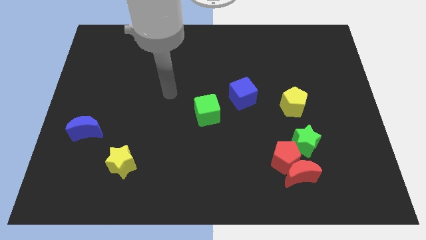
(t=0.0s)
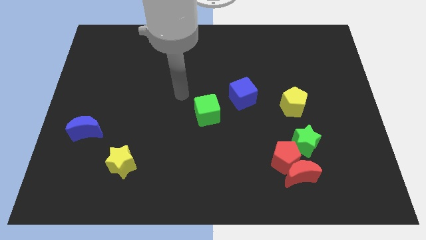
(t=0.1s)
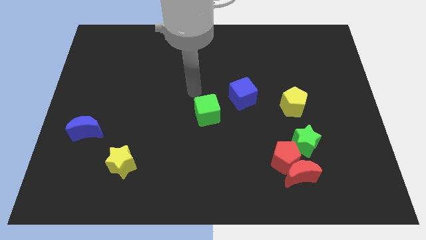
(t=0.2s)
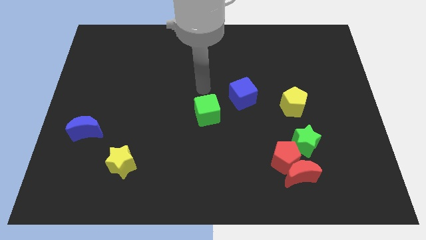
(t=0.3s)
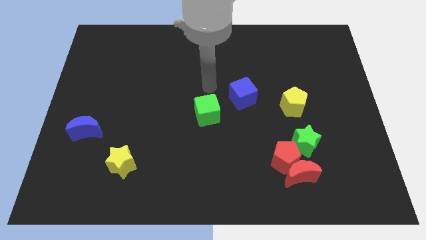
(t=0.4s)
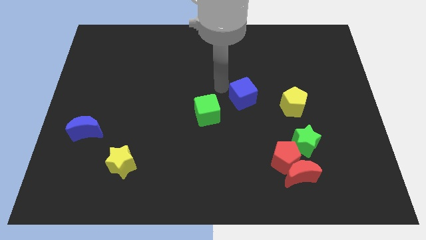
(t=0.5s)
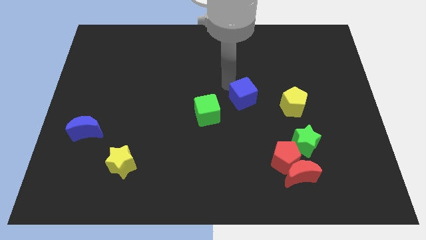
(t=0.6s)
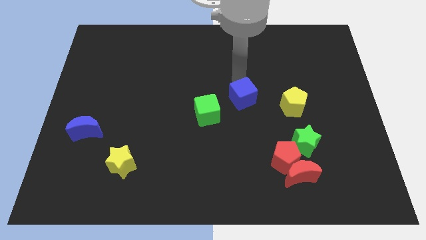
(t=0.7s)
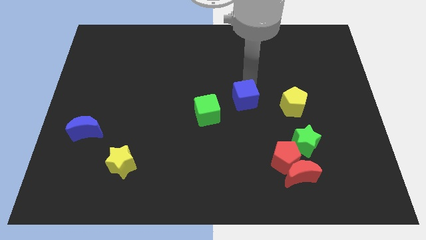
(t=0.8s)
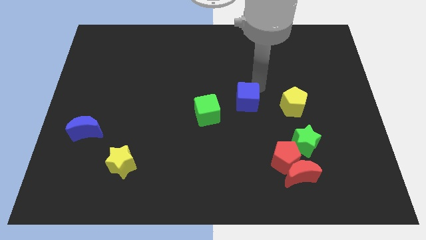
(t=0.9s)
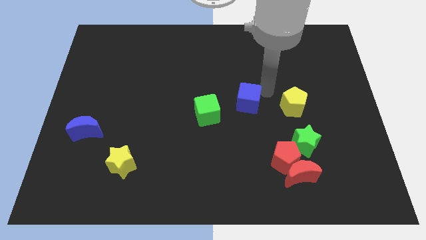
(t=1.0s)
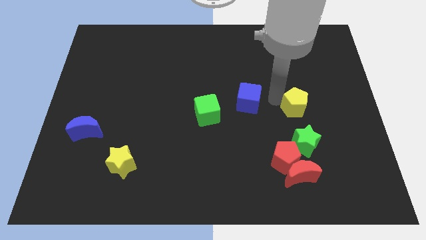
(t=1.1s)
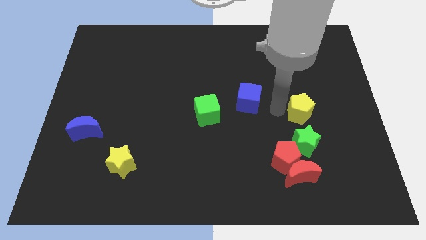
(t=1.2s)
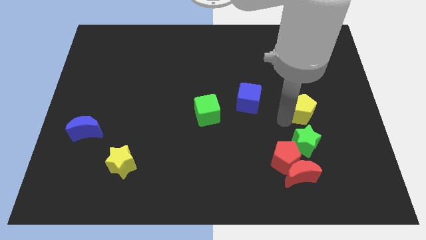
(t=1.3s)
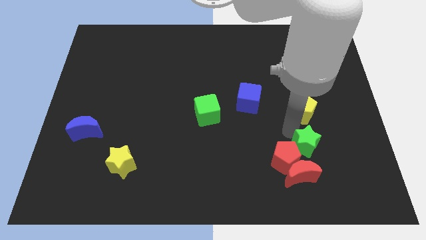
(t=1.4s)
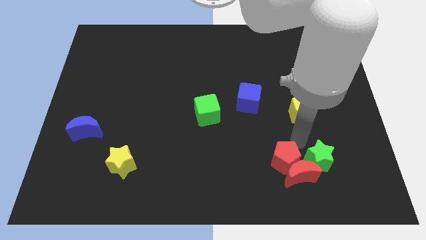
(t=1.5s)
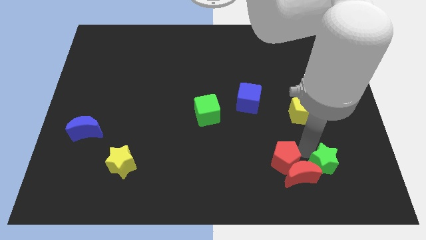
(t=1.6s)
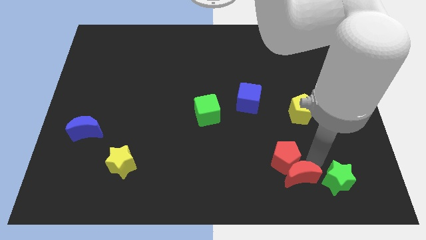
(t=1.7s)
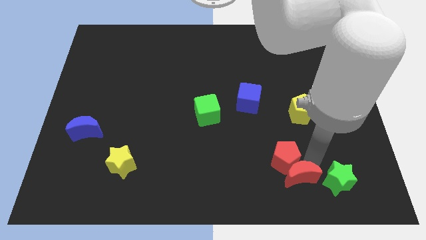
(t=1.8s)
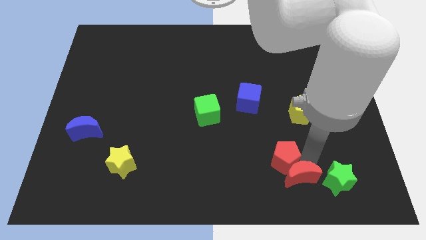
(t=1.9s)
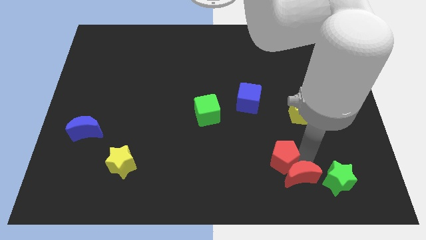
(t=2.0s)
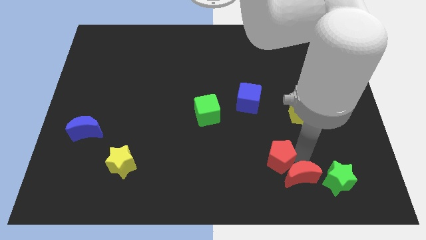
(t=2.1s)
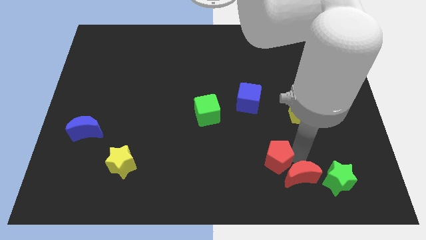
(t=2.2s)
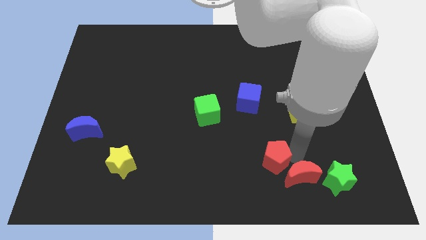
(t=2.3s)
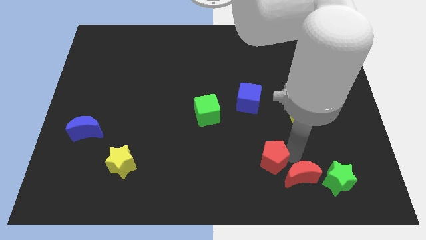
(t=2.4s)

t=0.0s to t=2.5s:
move the red pentagon away from the red moon and green star

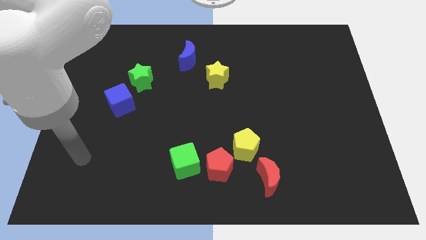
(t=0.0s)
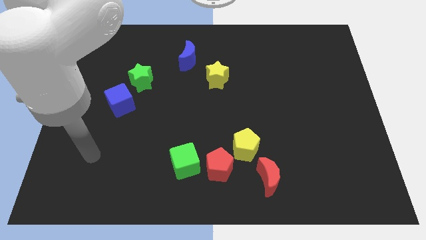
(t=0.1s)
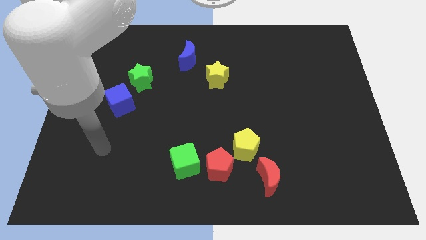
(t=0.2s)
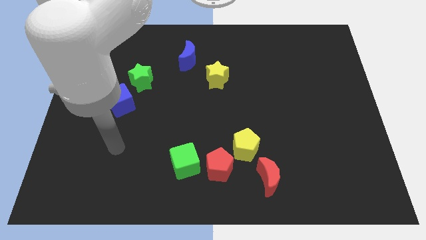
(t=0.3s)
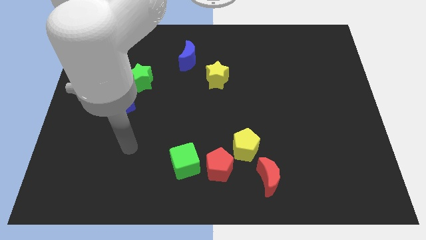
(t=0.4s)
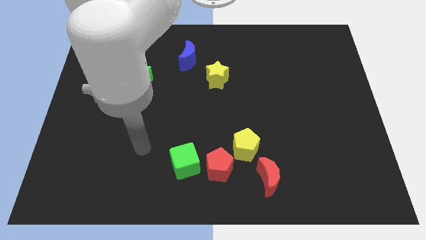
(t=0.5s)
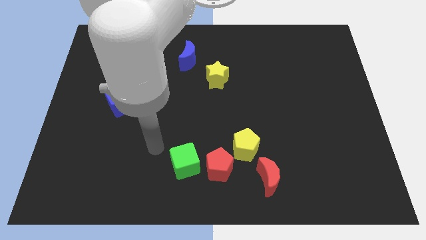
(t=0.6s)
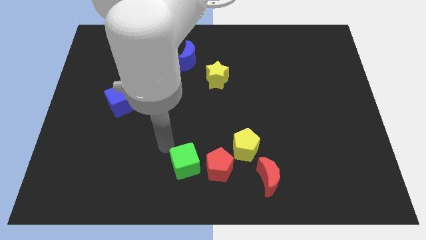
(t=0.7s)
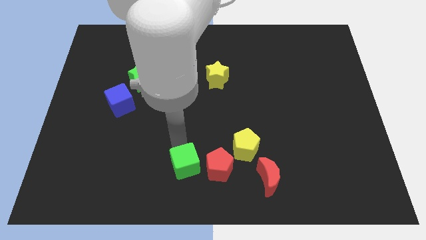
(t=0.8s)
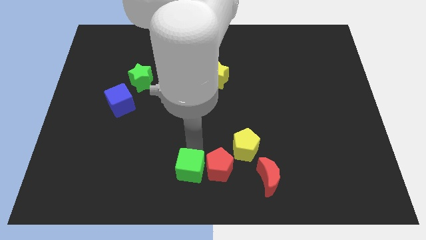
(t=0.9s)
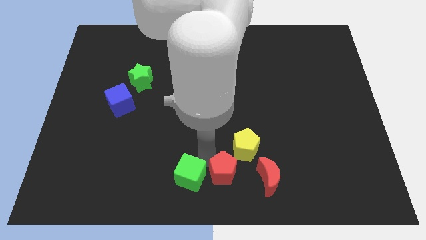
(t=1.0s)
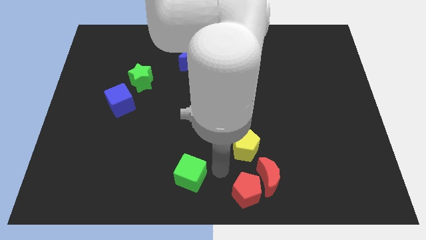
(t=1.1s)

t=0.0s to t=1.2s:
pull the green cube apart from the red pentagon

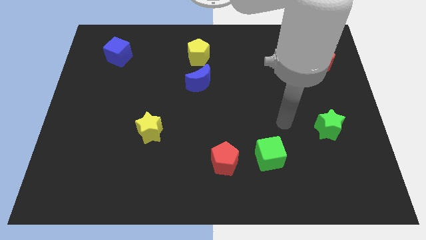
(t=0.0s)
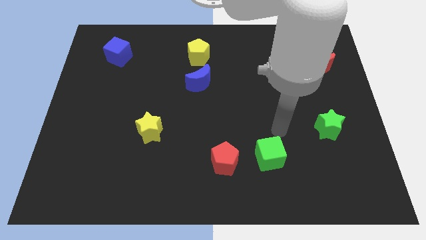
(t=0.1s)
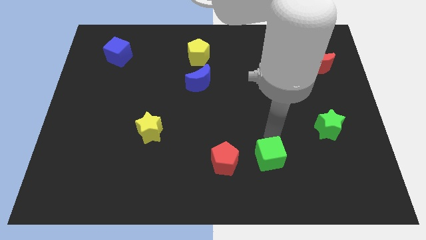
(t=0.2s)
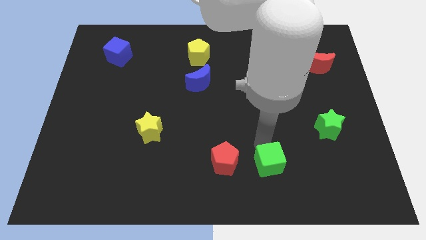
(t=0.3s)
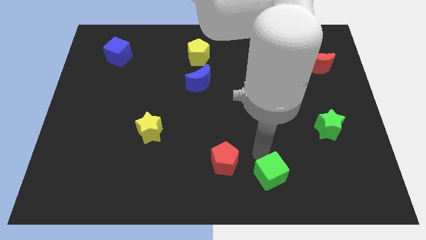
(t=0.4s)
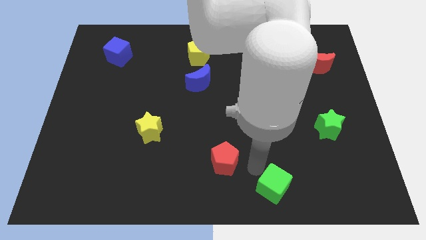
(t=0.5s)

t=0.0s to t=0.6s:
pull the red pentagon apart from the green cube

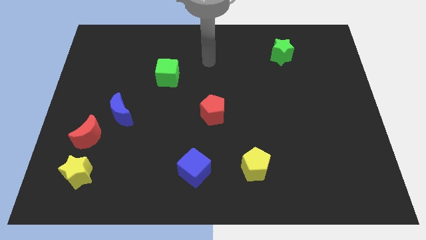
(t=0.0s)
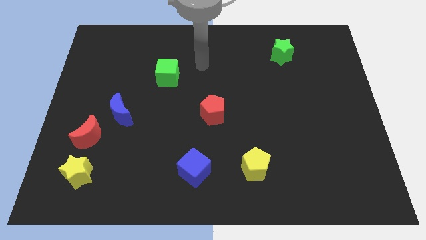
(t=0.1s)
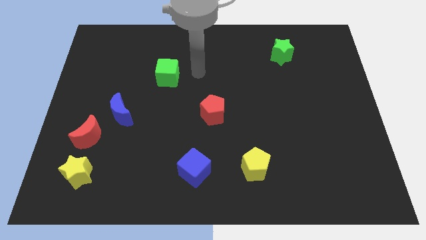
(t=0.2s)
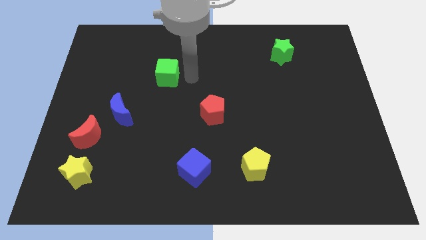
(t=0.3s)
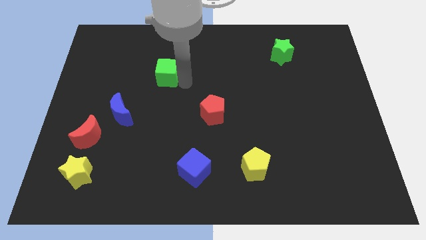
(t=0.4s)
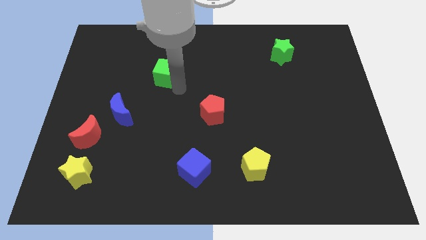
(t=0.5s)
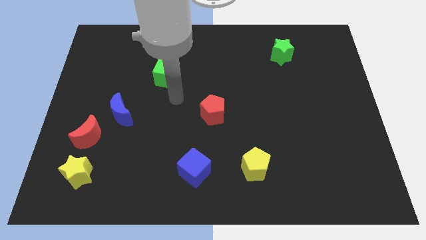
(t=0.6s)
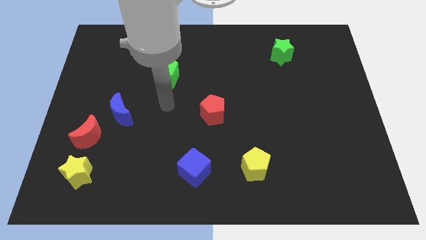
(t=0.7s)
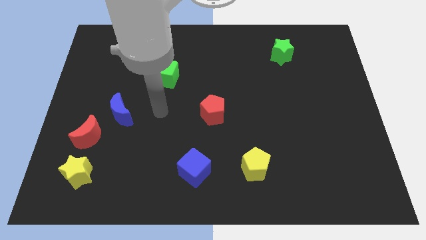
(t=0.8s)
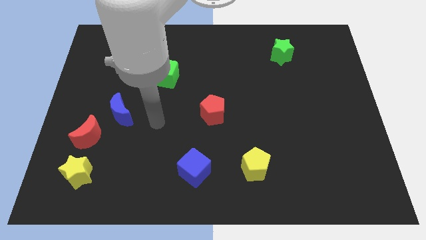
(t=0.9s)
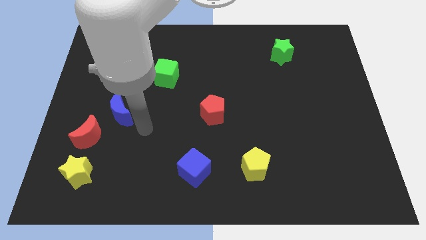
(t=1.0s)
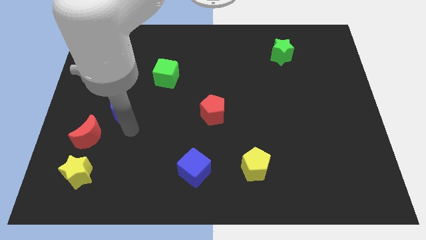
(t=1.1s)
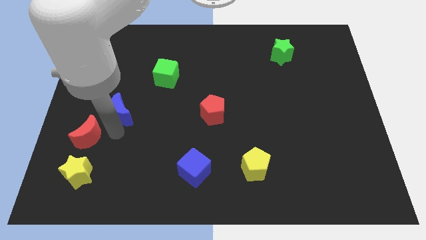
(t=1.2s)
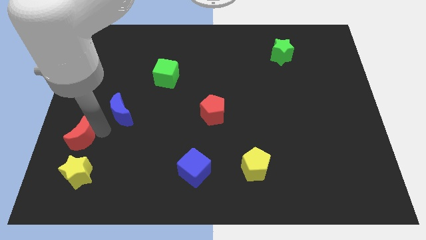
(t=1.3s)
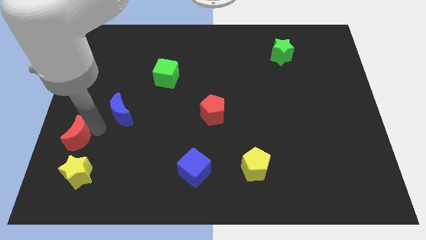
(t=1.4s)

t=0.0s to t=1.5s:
move the blue moon away from the red moon

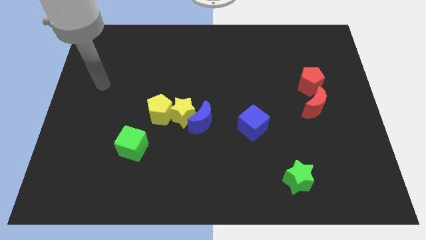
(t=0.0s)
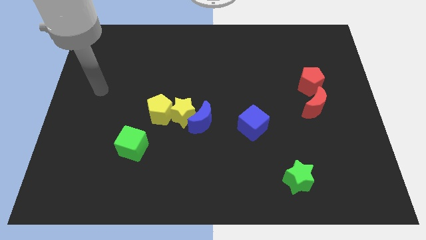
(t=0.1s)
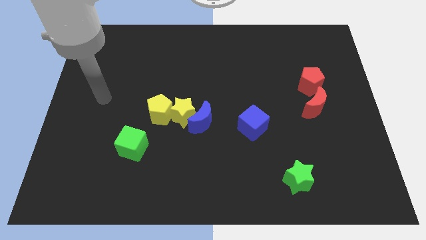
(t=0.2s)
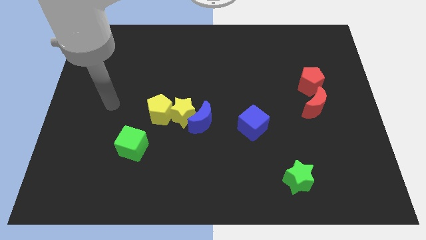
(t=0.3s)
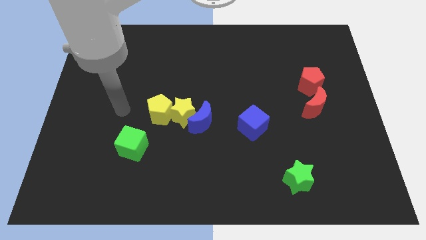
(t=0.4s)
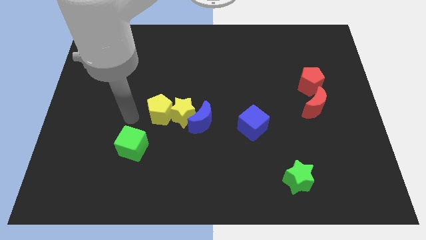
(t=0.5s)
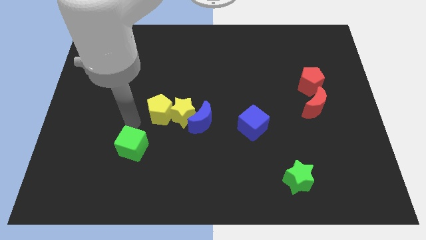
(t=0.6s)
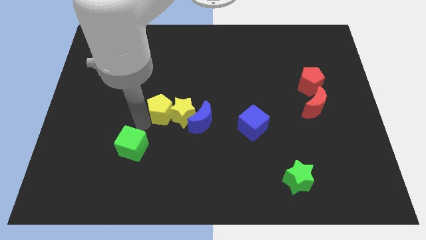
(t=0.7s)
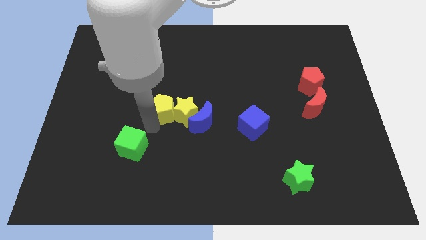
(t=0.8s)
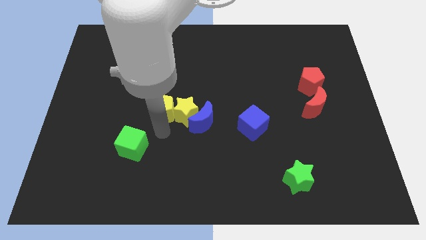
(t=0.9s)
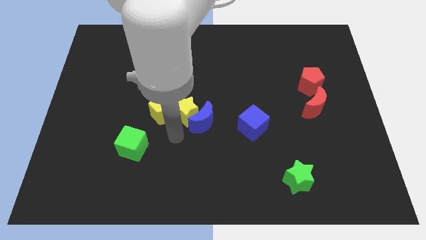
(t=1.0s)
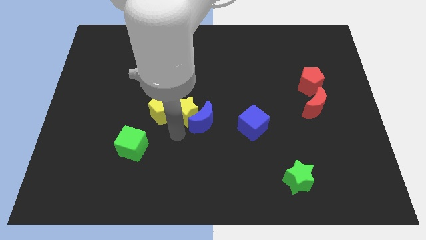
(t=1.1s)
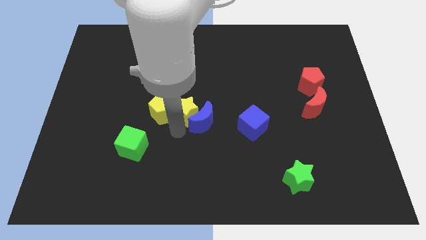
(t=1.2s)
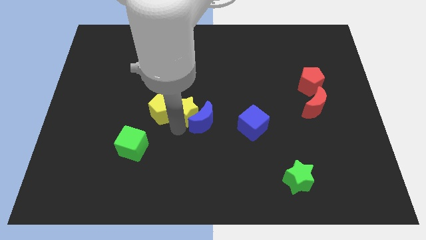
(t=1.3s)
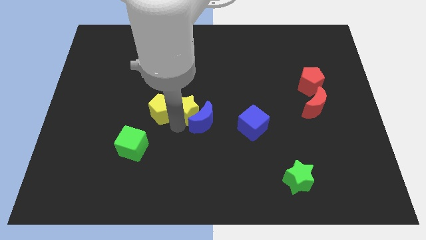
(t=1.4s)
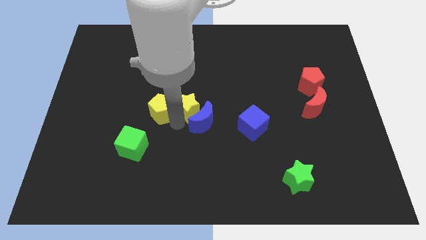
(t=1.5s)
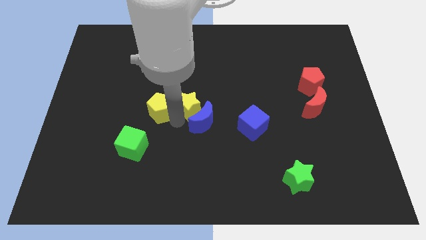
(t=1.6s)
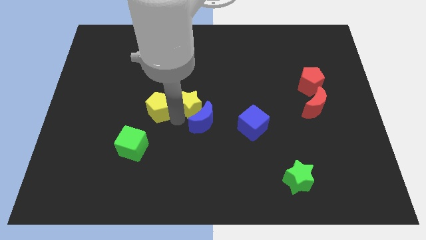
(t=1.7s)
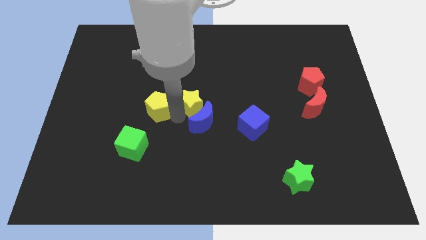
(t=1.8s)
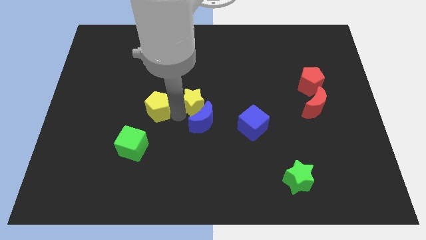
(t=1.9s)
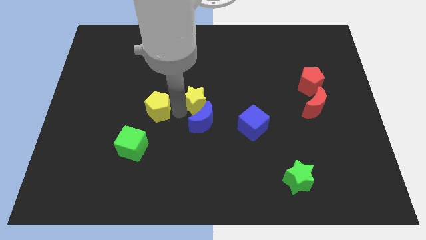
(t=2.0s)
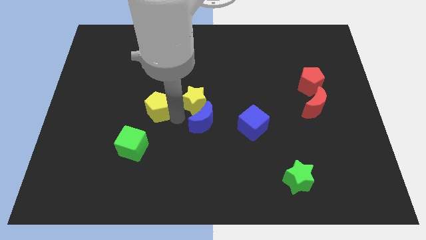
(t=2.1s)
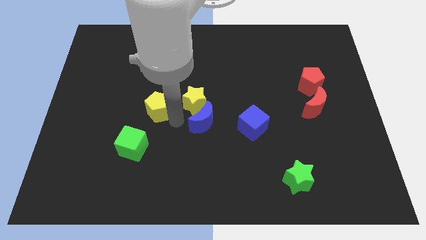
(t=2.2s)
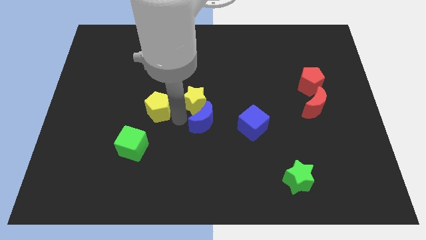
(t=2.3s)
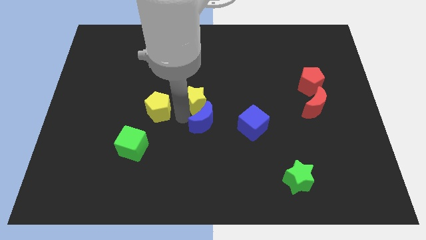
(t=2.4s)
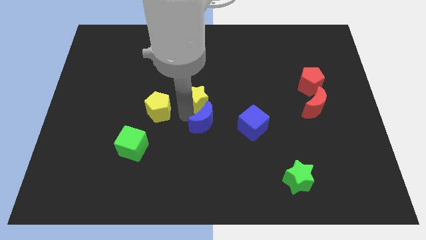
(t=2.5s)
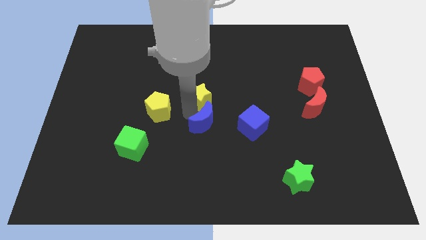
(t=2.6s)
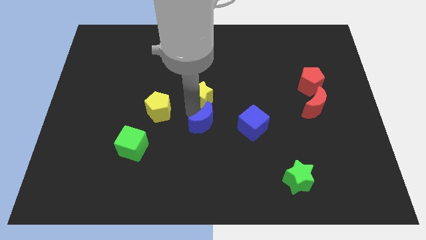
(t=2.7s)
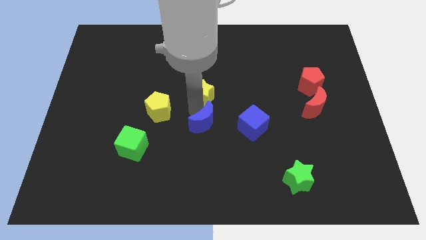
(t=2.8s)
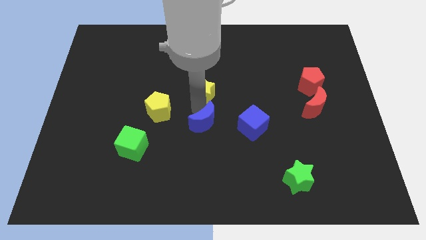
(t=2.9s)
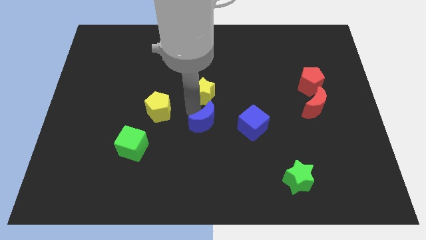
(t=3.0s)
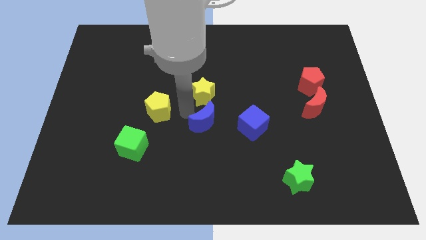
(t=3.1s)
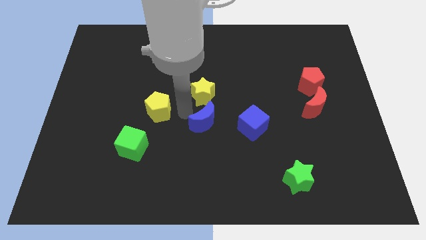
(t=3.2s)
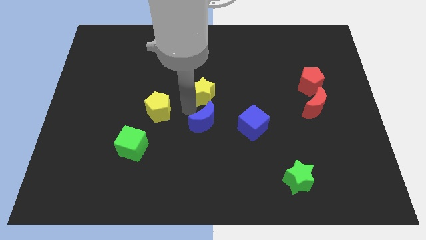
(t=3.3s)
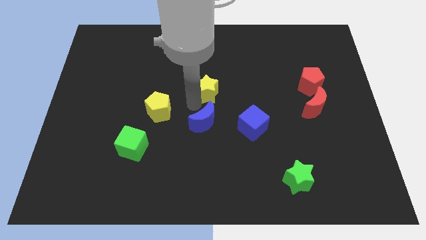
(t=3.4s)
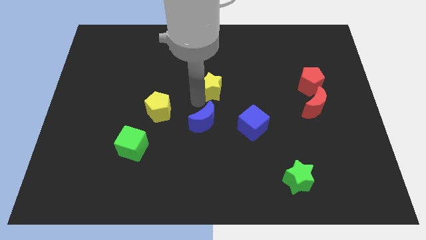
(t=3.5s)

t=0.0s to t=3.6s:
move the yellow star away from the blue moon and yellow pentagon
